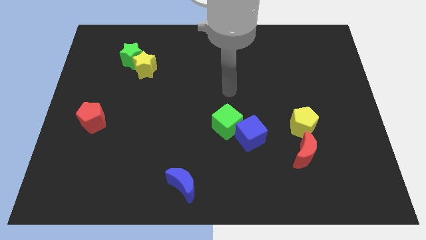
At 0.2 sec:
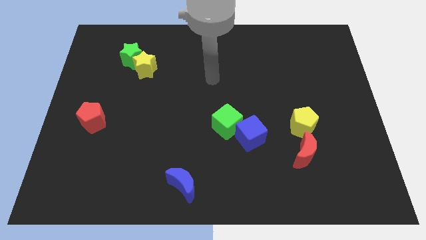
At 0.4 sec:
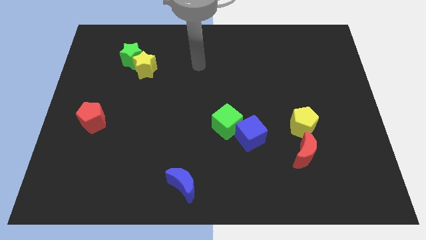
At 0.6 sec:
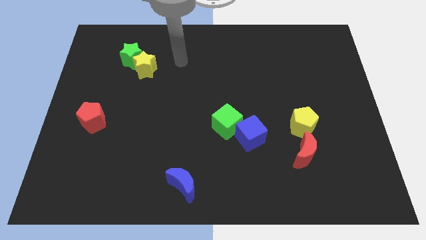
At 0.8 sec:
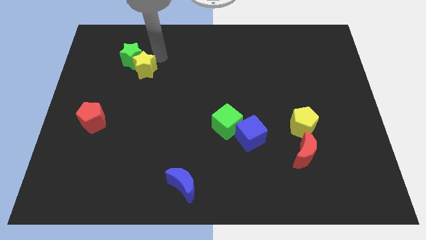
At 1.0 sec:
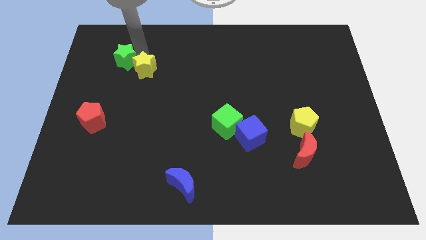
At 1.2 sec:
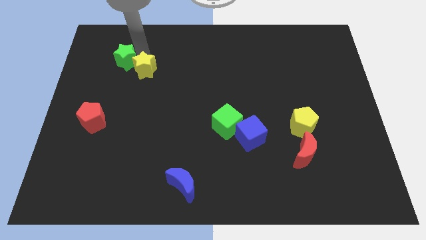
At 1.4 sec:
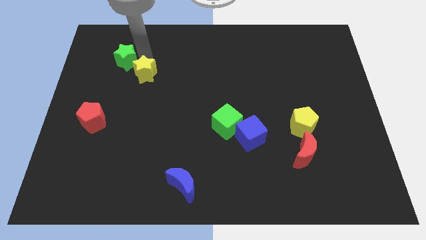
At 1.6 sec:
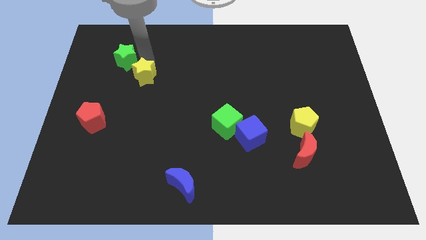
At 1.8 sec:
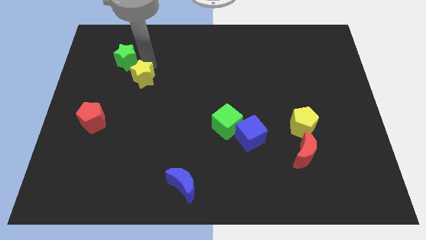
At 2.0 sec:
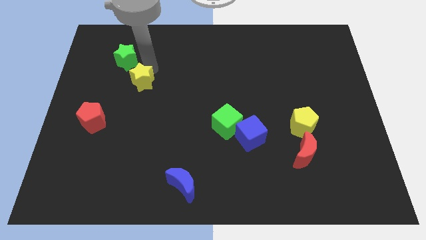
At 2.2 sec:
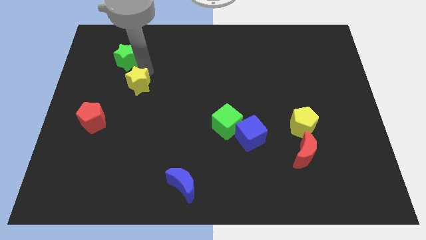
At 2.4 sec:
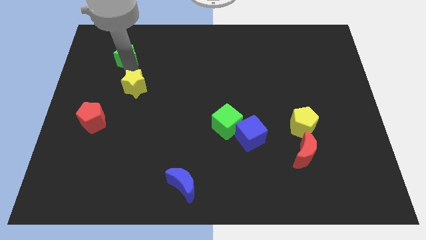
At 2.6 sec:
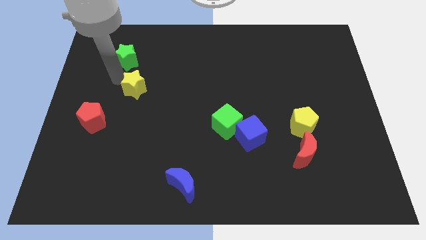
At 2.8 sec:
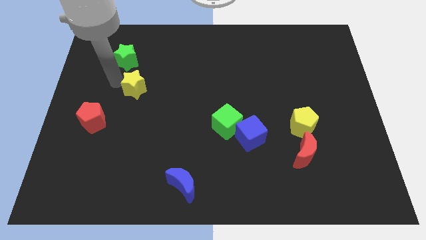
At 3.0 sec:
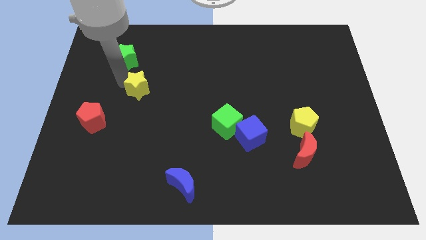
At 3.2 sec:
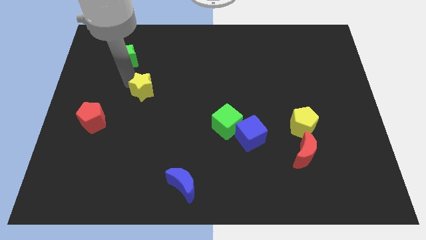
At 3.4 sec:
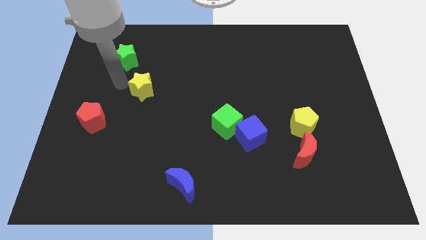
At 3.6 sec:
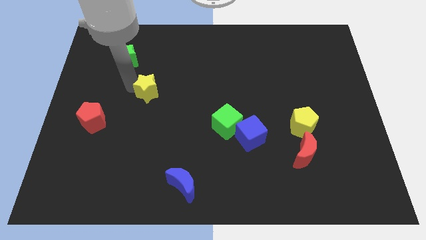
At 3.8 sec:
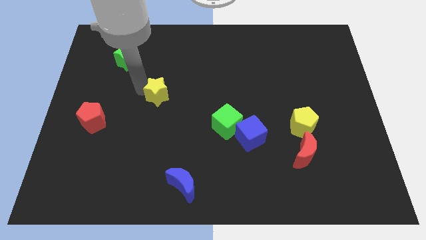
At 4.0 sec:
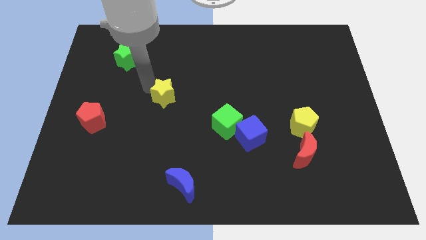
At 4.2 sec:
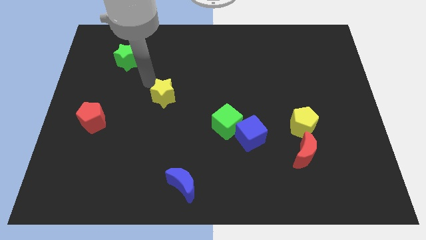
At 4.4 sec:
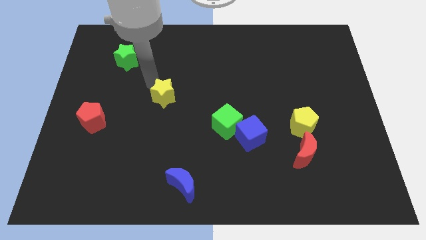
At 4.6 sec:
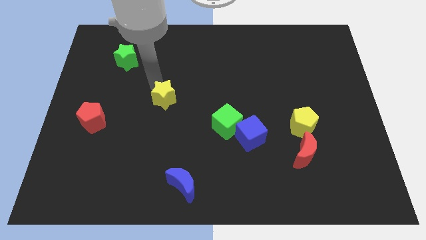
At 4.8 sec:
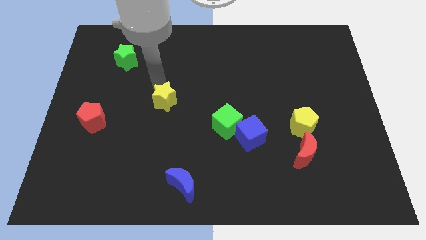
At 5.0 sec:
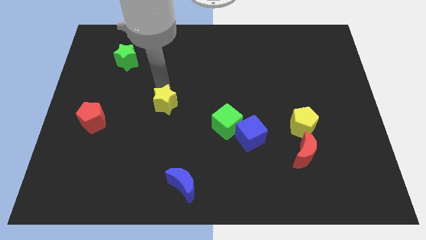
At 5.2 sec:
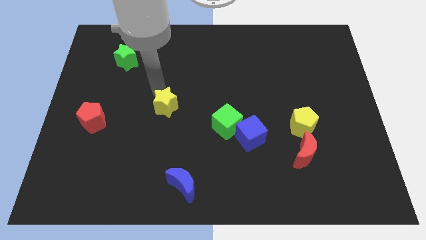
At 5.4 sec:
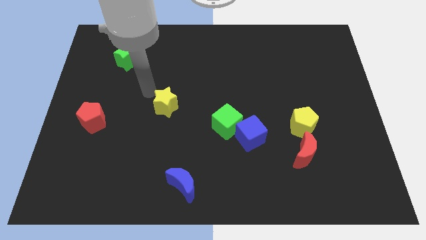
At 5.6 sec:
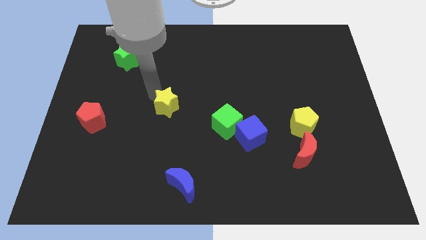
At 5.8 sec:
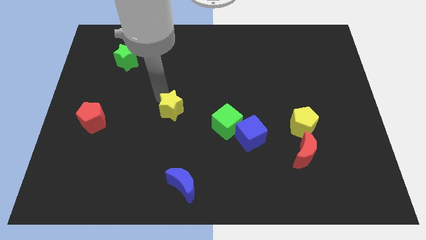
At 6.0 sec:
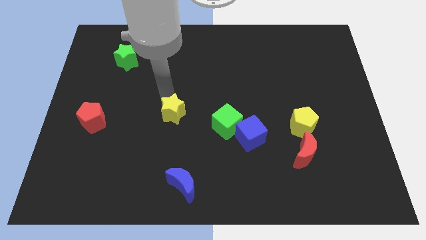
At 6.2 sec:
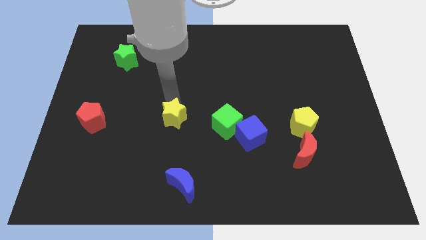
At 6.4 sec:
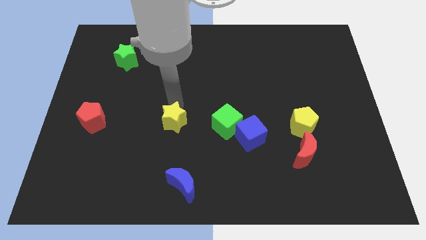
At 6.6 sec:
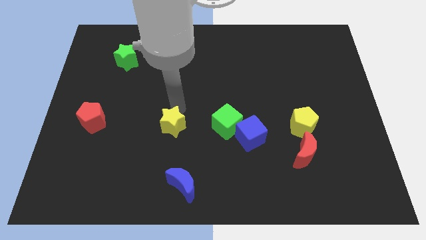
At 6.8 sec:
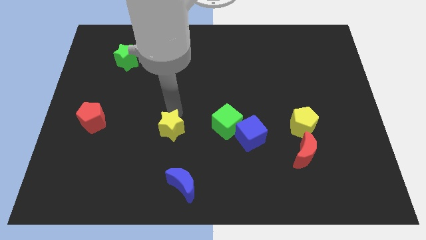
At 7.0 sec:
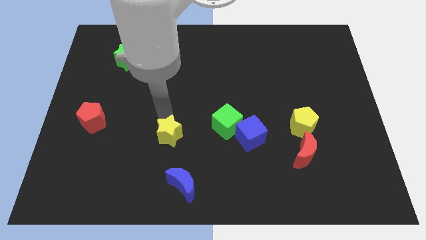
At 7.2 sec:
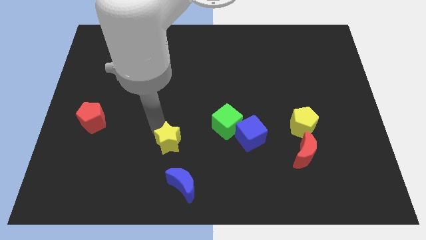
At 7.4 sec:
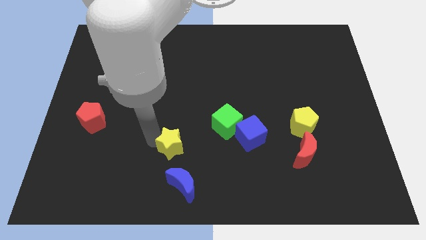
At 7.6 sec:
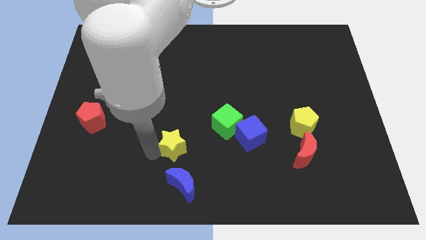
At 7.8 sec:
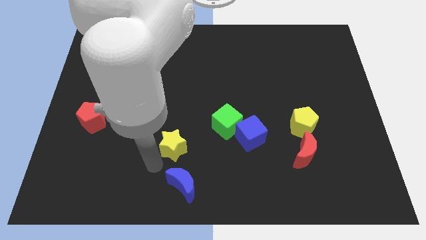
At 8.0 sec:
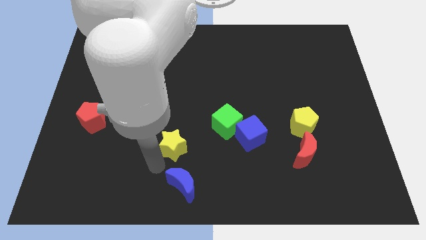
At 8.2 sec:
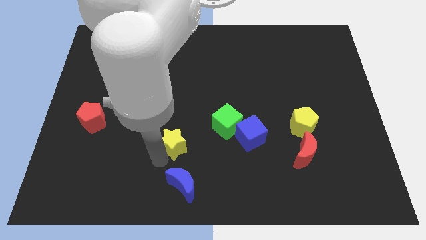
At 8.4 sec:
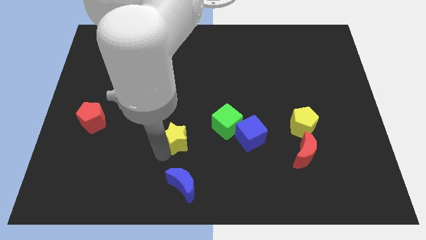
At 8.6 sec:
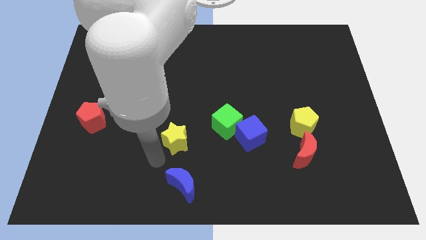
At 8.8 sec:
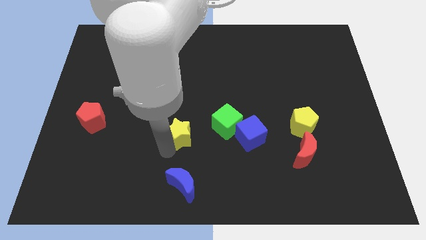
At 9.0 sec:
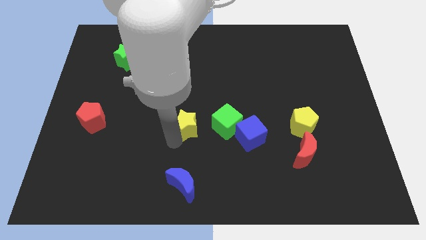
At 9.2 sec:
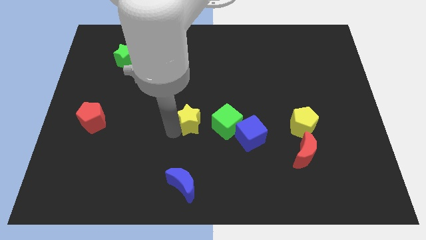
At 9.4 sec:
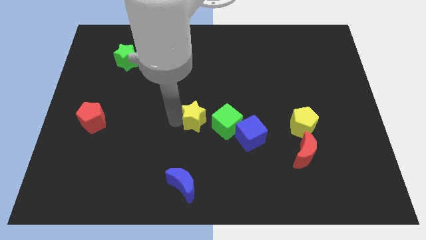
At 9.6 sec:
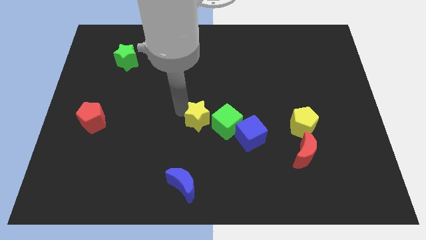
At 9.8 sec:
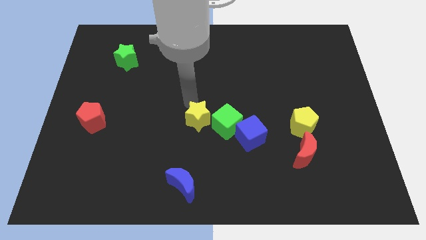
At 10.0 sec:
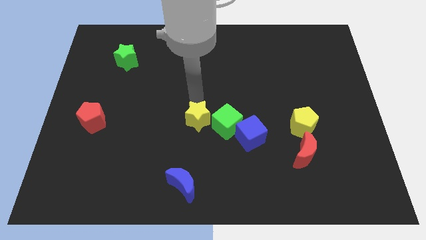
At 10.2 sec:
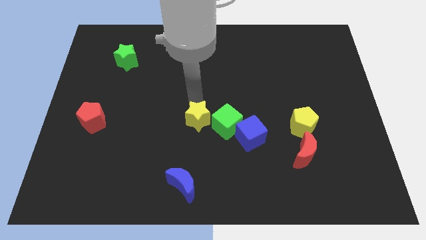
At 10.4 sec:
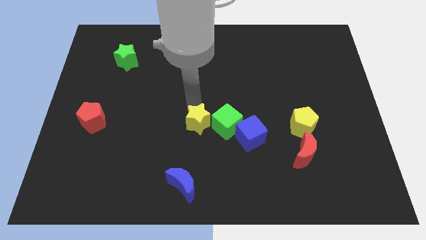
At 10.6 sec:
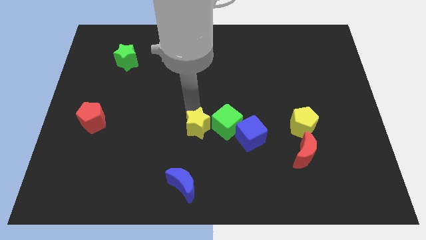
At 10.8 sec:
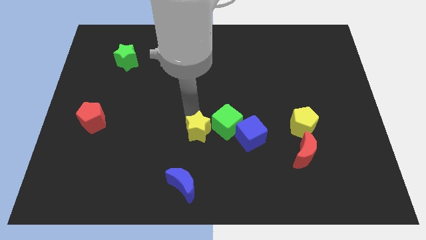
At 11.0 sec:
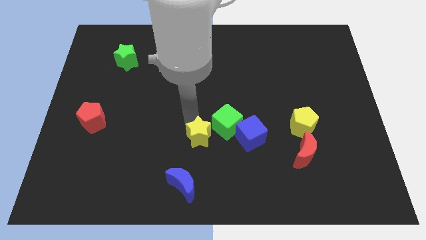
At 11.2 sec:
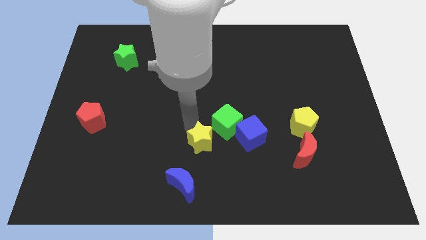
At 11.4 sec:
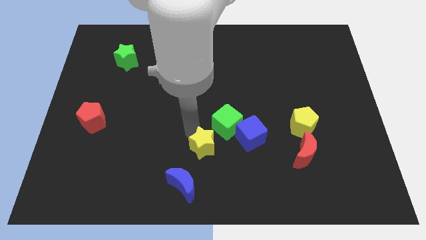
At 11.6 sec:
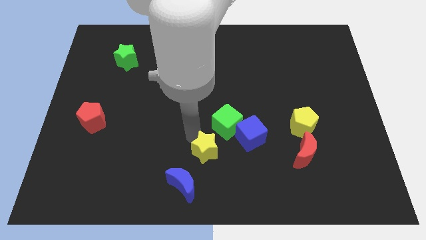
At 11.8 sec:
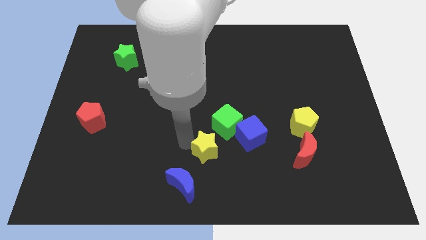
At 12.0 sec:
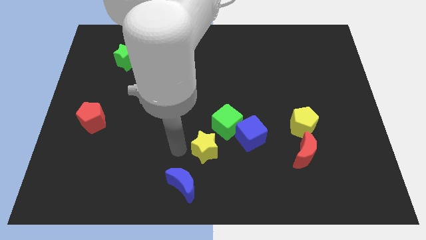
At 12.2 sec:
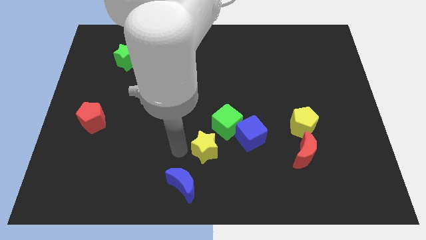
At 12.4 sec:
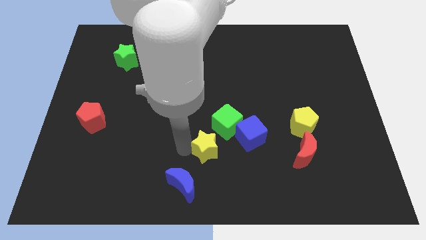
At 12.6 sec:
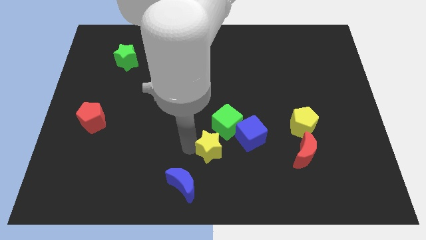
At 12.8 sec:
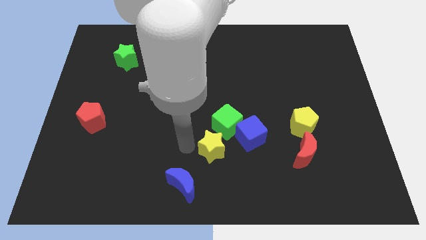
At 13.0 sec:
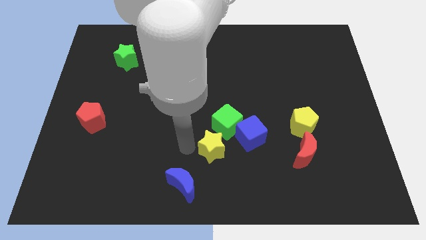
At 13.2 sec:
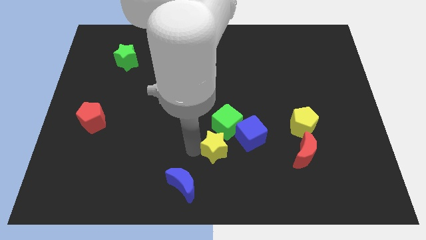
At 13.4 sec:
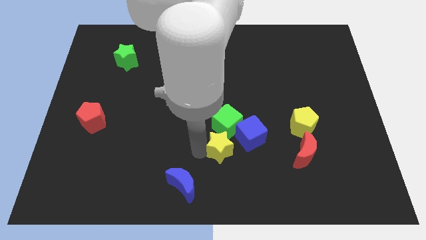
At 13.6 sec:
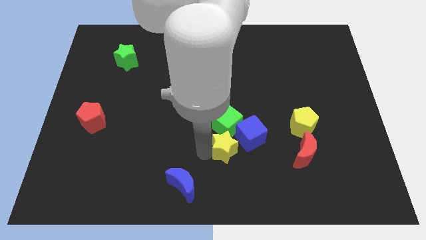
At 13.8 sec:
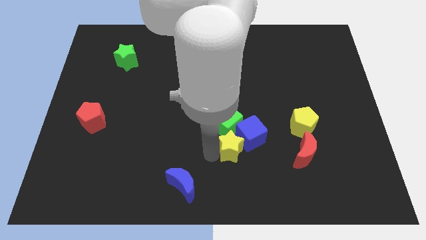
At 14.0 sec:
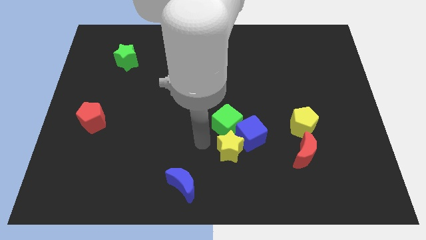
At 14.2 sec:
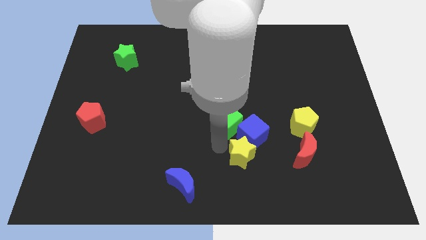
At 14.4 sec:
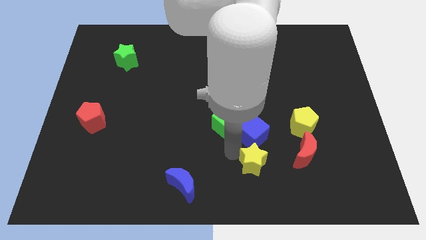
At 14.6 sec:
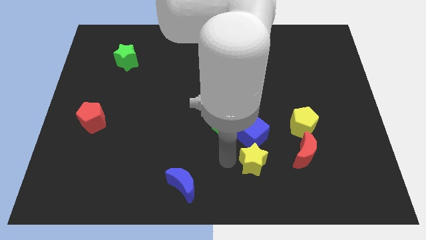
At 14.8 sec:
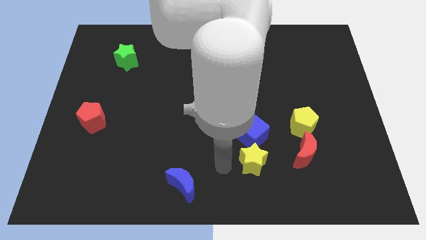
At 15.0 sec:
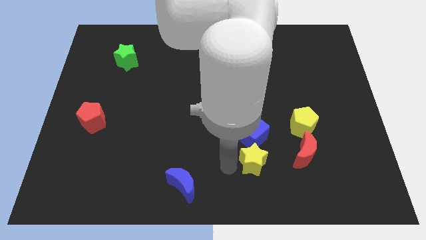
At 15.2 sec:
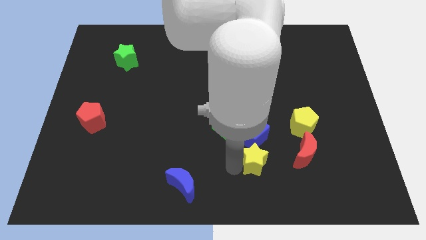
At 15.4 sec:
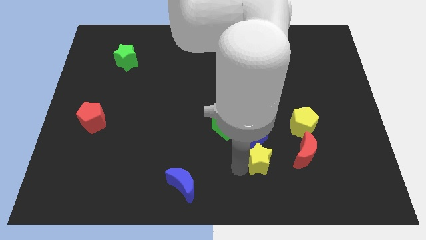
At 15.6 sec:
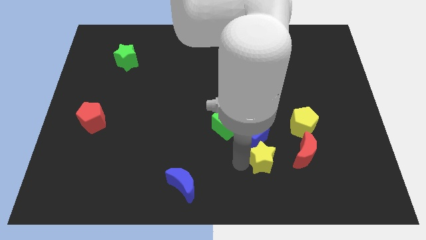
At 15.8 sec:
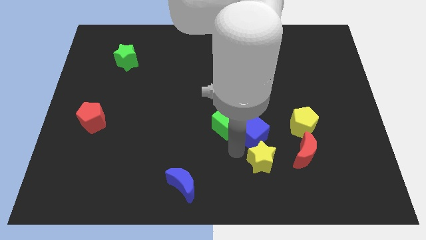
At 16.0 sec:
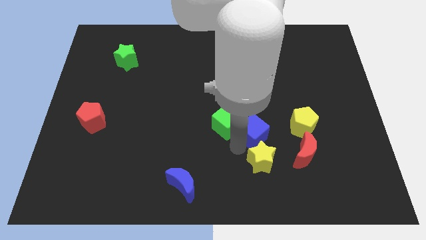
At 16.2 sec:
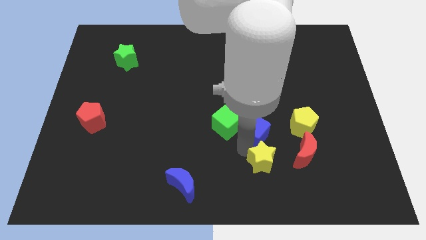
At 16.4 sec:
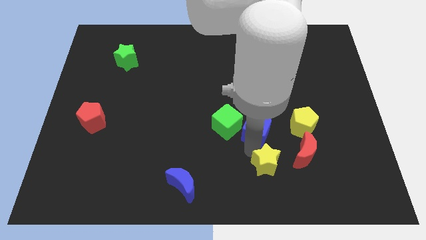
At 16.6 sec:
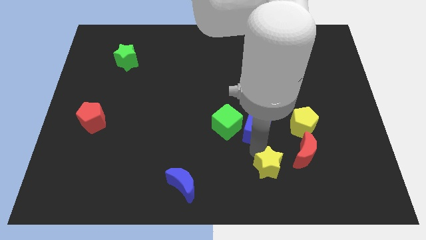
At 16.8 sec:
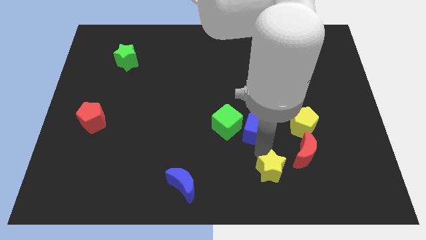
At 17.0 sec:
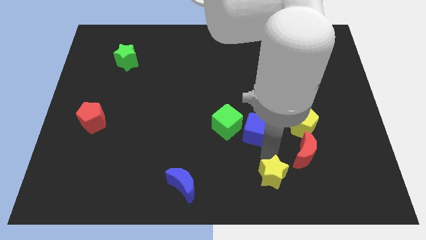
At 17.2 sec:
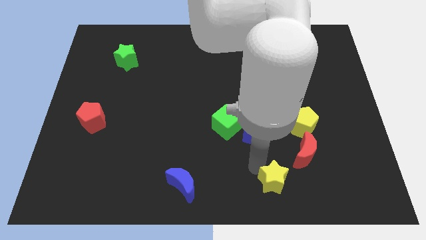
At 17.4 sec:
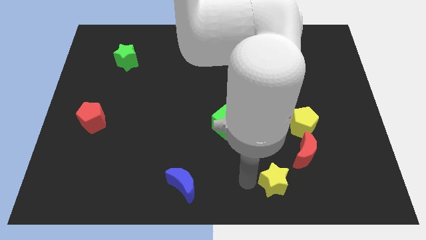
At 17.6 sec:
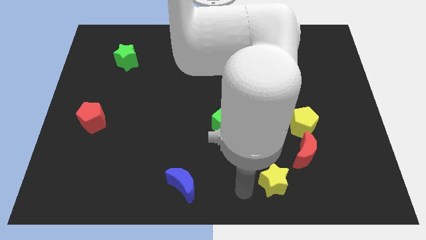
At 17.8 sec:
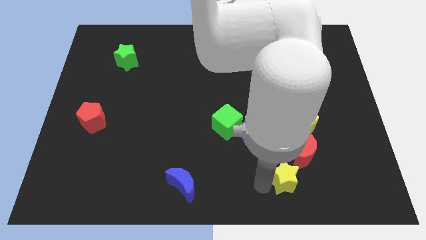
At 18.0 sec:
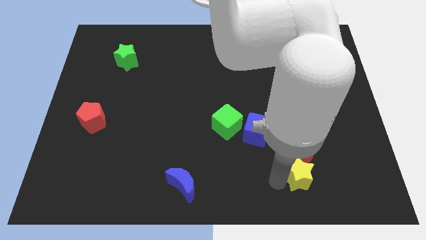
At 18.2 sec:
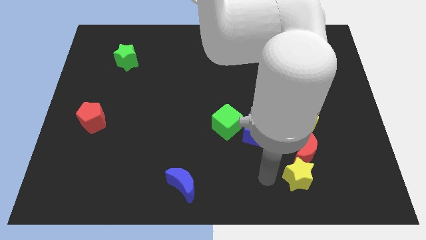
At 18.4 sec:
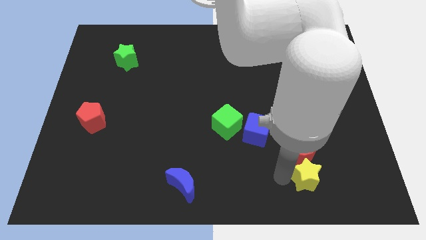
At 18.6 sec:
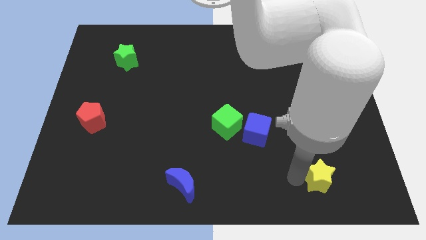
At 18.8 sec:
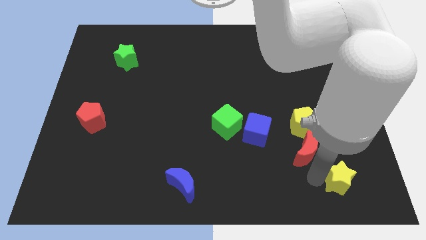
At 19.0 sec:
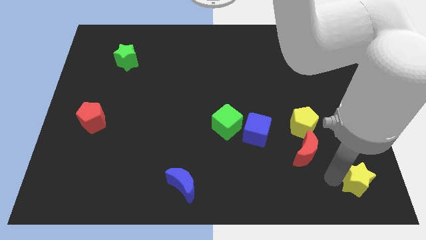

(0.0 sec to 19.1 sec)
push the yellow star to the bottom right corner
